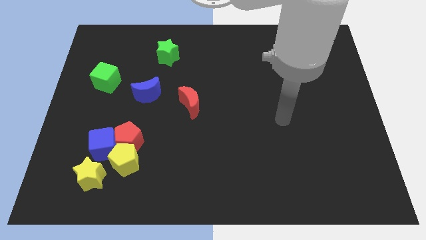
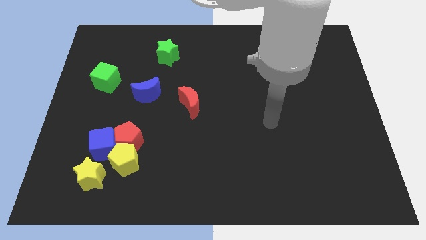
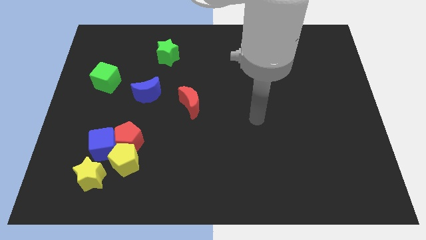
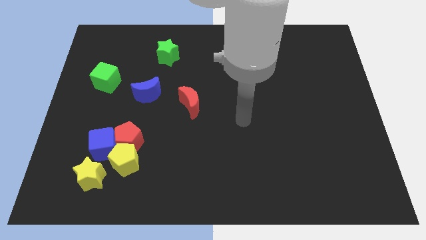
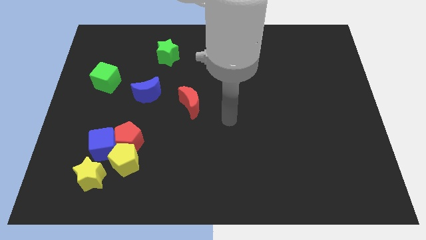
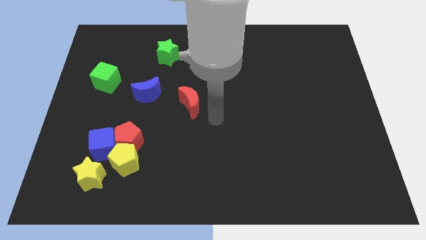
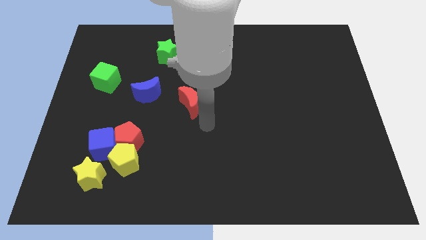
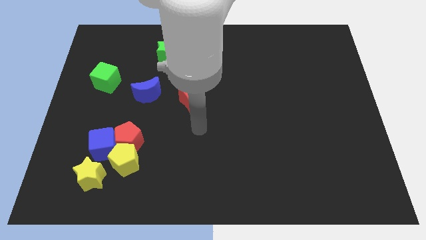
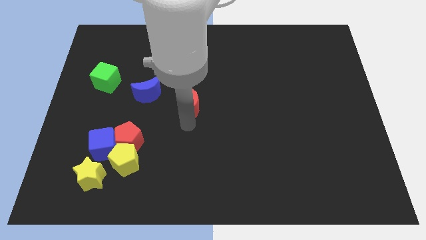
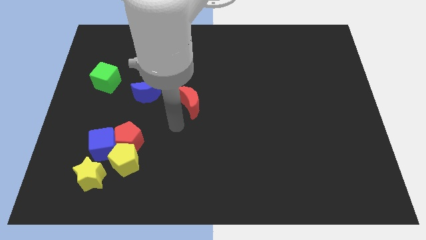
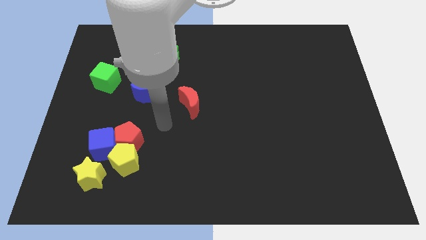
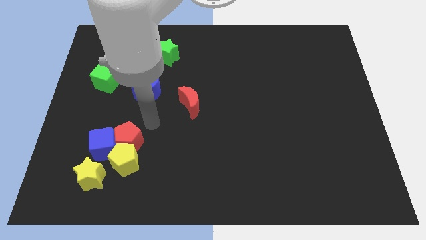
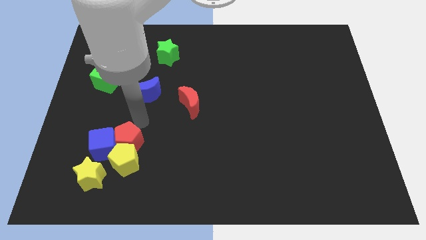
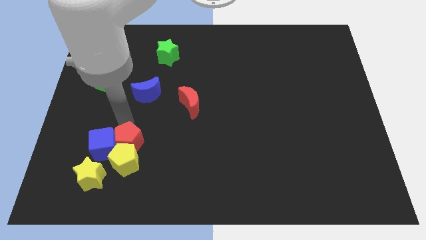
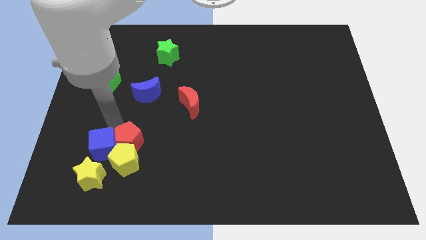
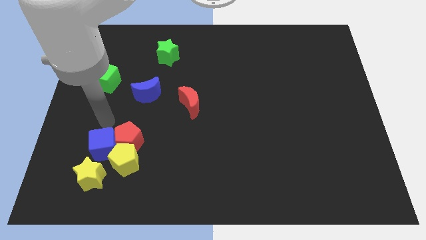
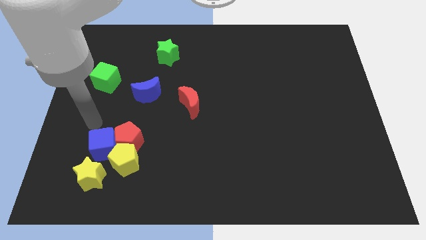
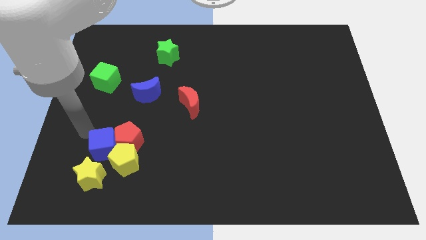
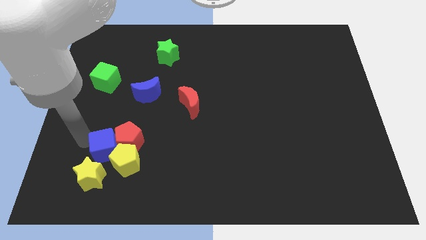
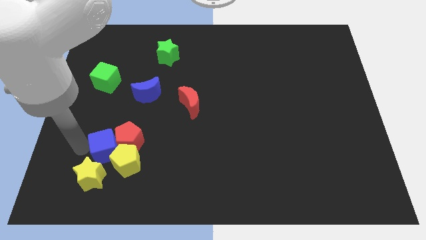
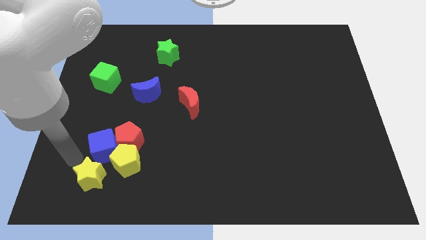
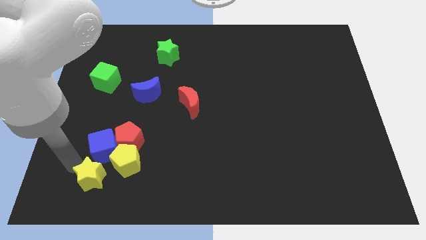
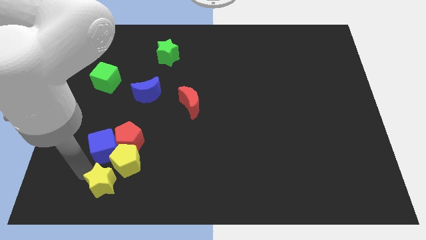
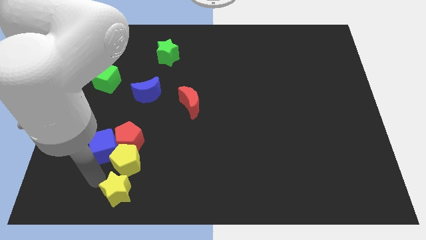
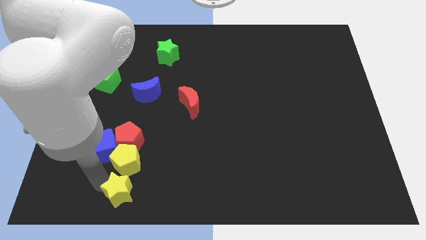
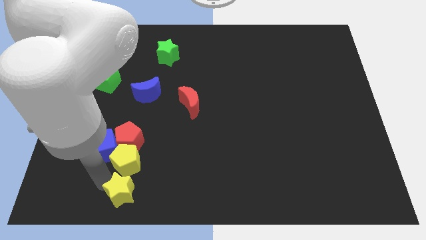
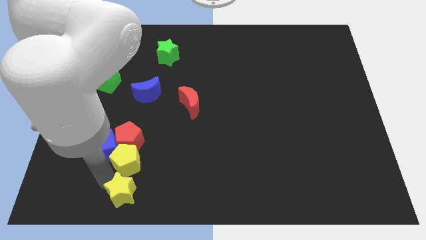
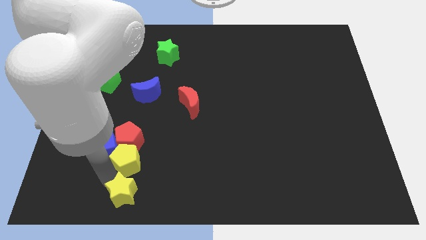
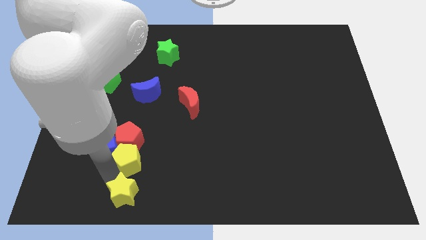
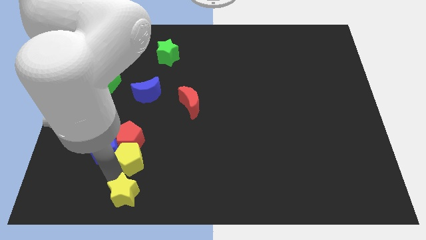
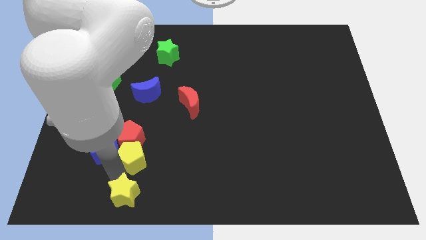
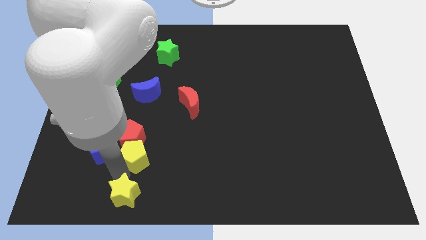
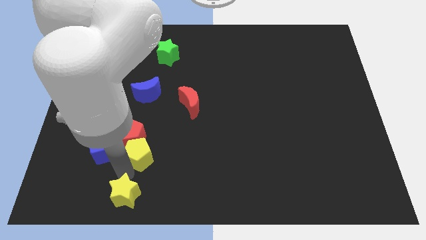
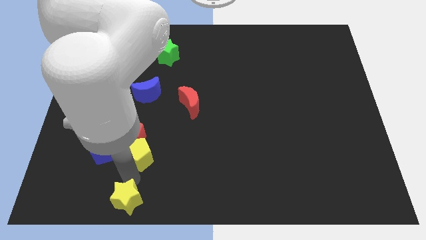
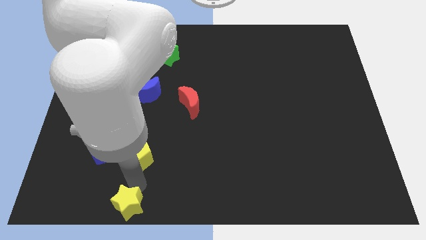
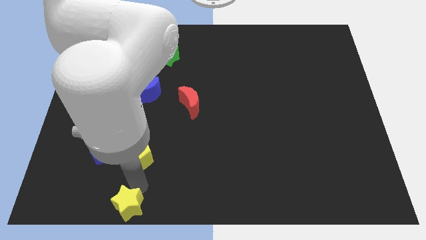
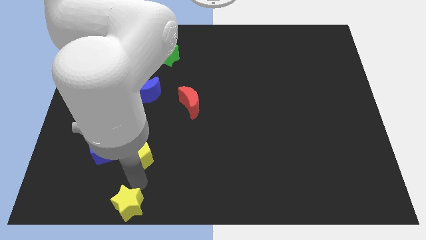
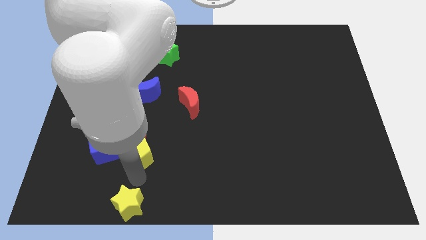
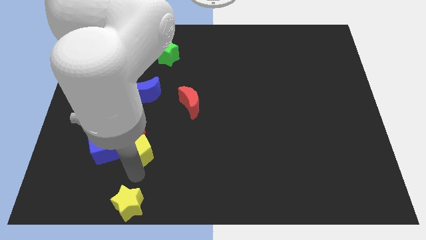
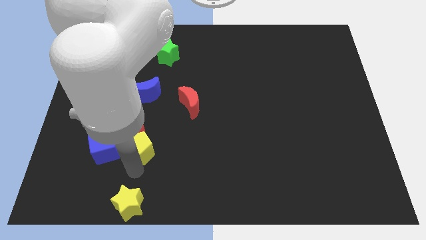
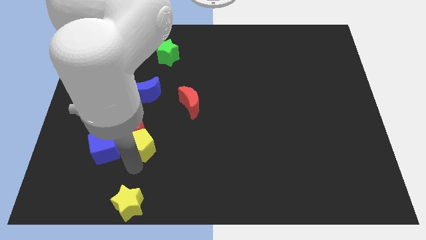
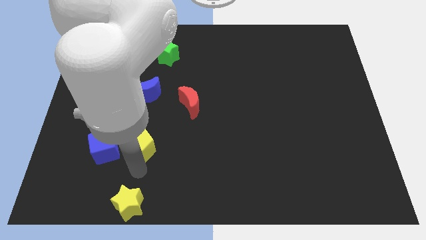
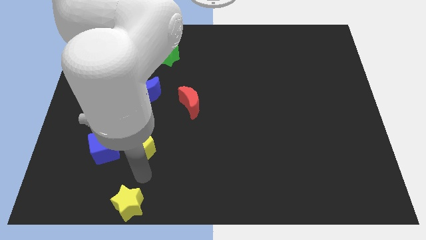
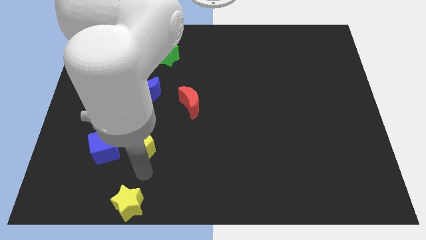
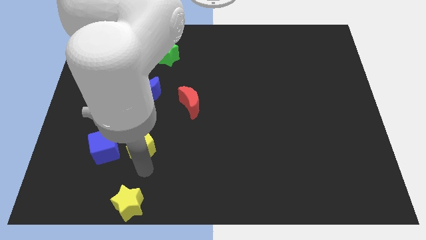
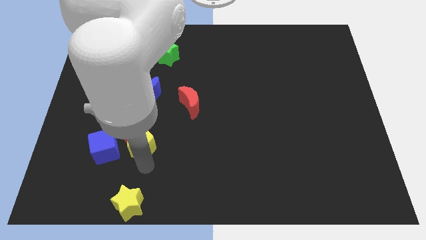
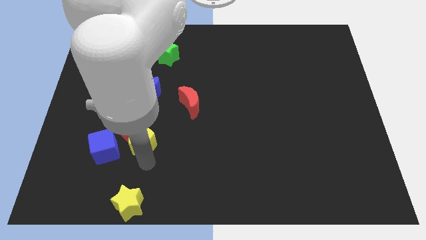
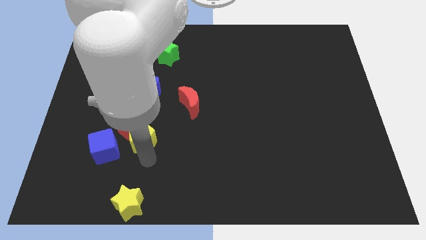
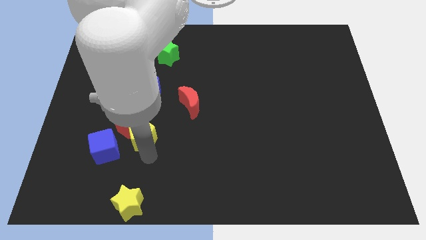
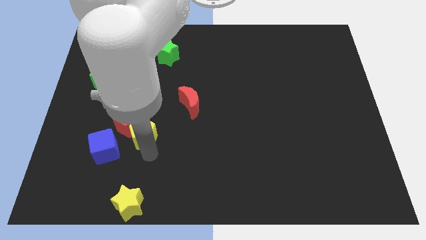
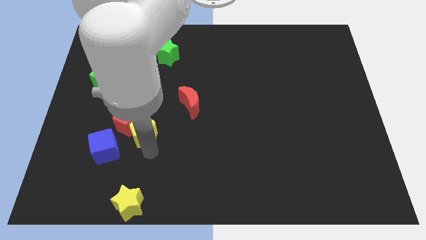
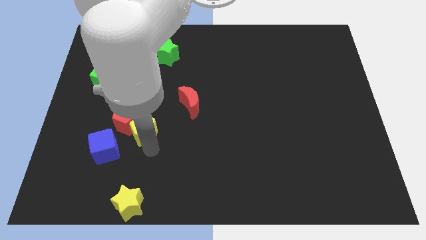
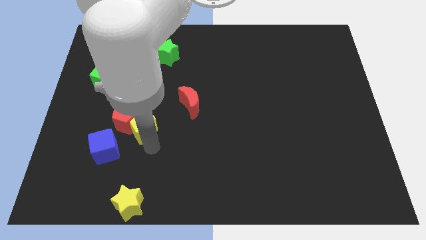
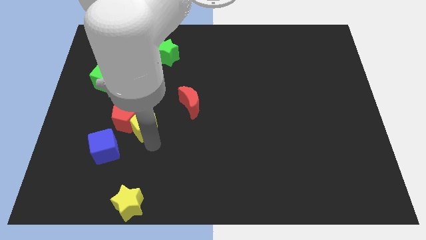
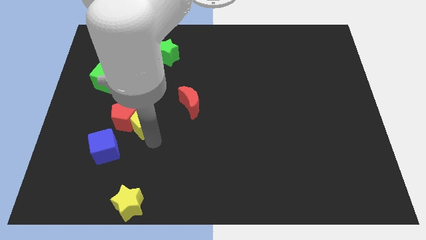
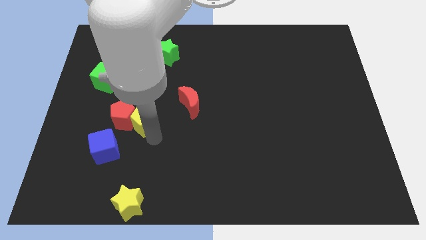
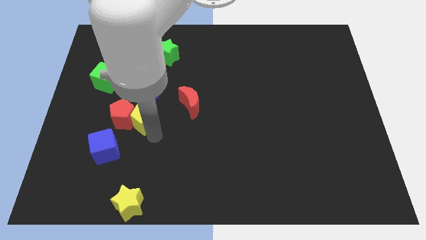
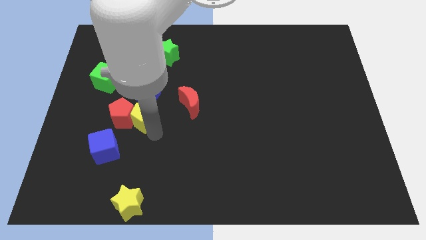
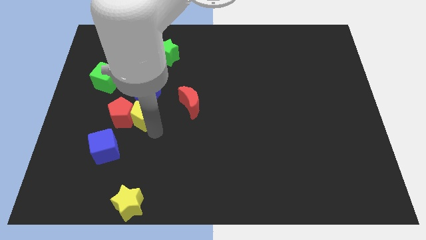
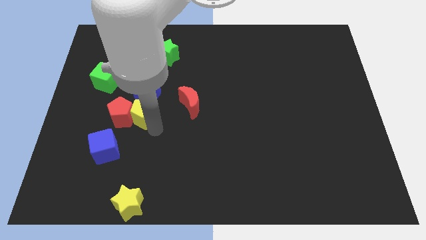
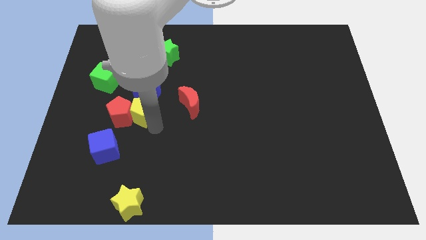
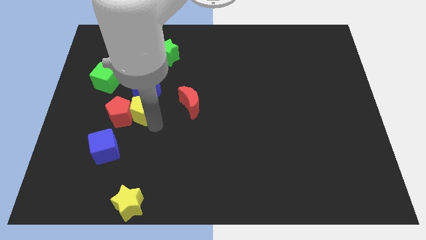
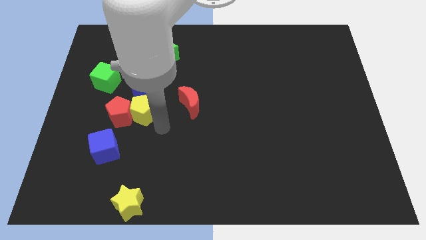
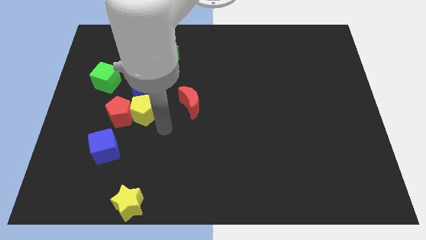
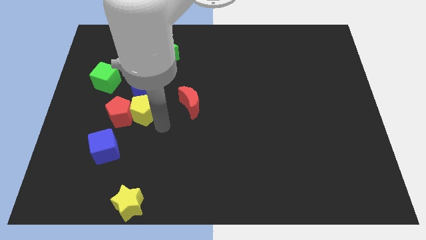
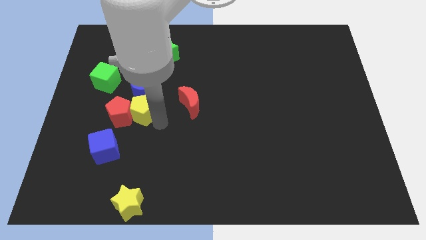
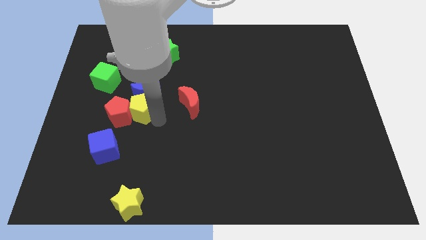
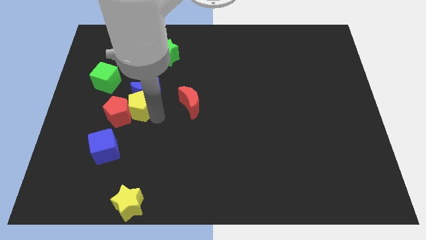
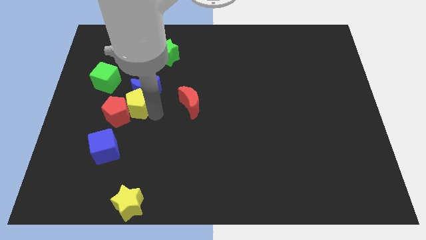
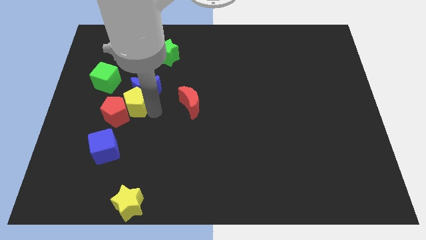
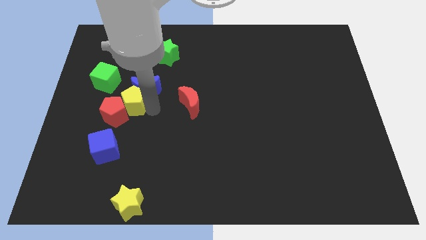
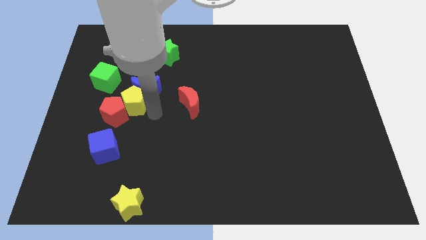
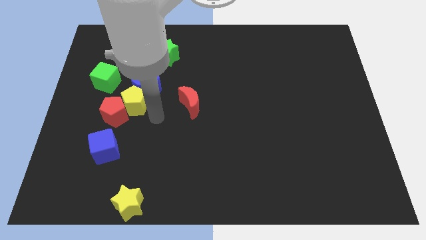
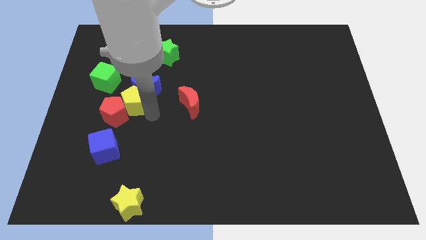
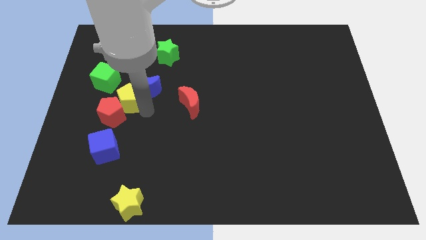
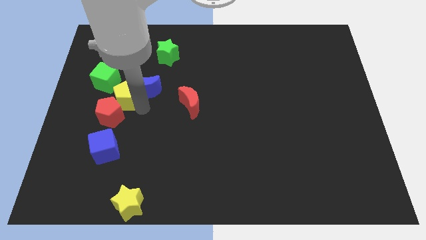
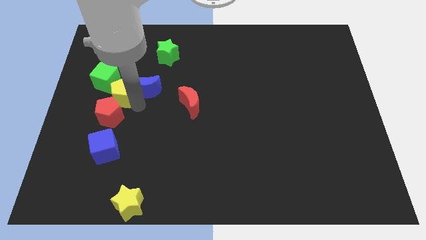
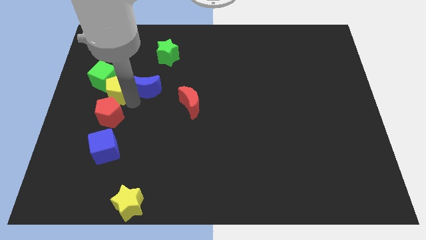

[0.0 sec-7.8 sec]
move the yellow pentagon to the green cube

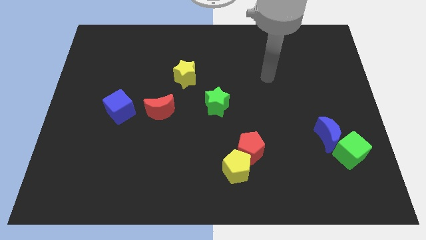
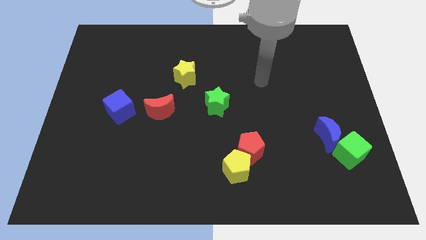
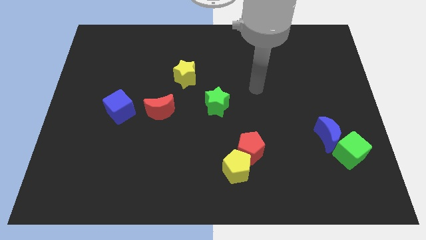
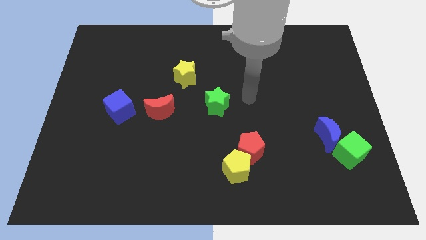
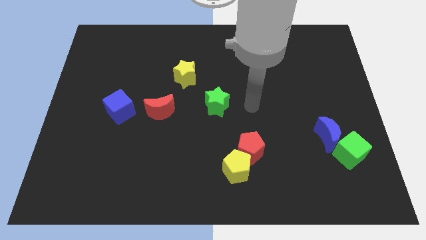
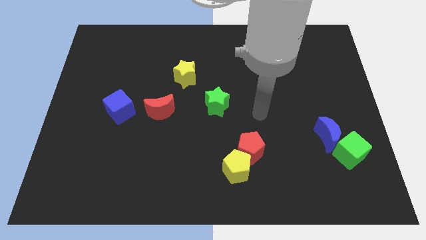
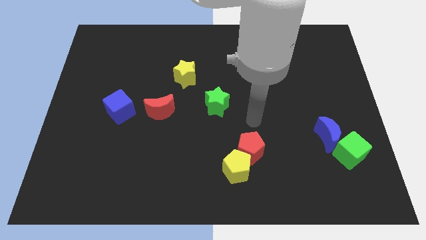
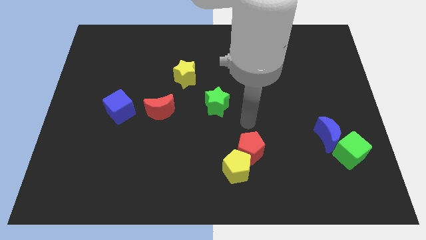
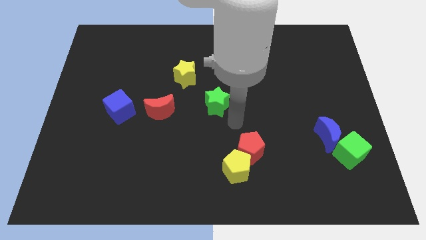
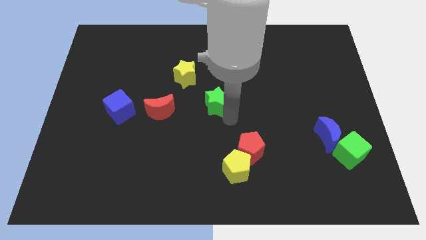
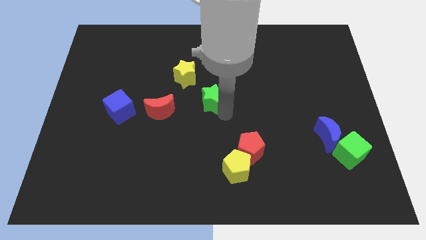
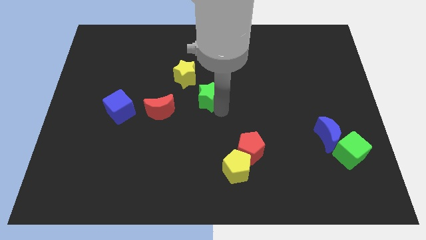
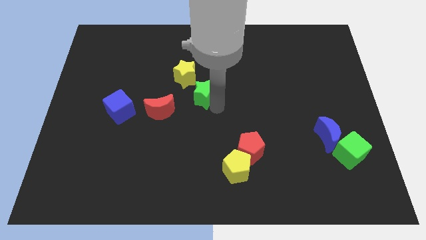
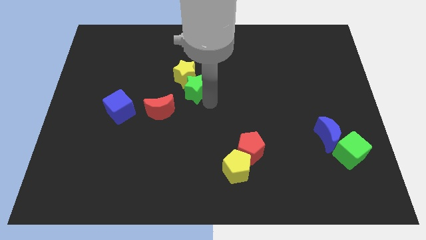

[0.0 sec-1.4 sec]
move the green star close to the yellow star
